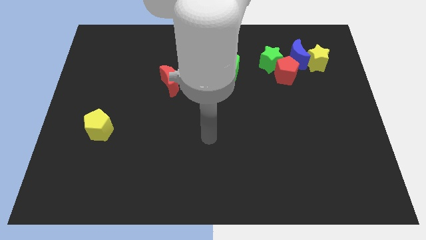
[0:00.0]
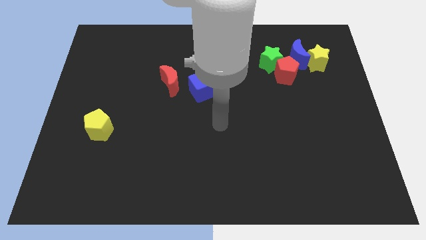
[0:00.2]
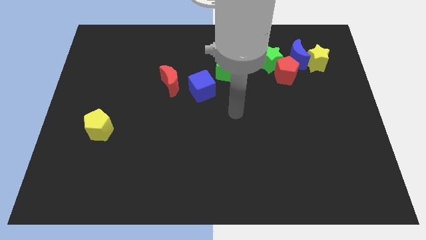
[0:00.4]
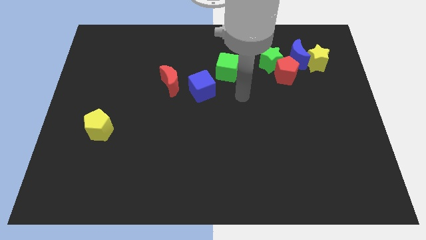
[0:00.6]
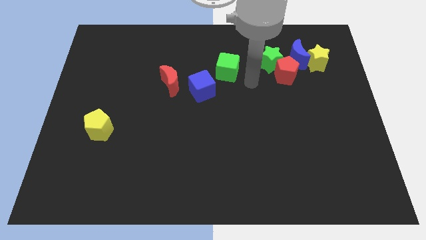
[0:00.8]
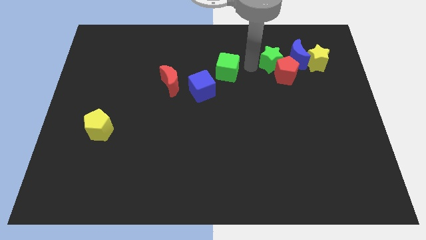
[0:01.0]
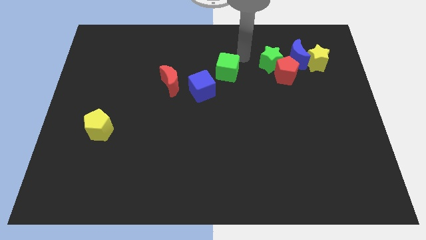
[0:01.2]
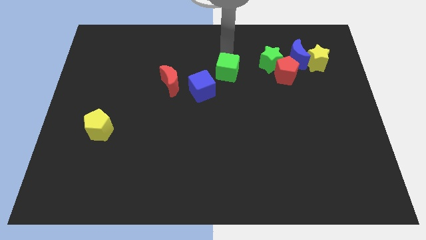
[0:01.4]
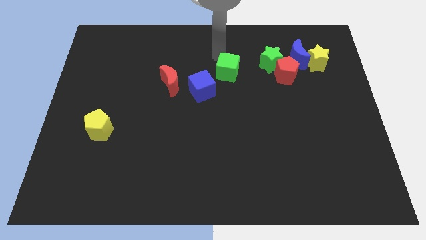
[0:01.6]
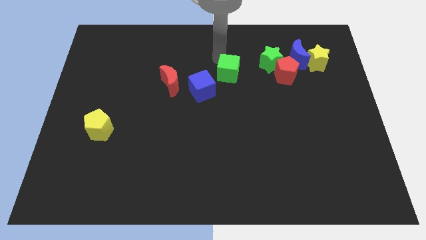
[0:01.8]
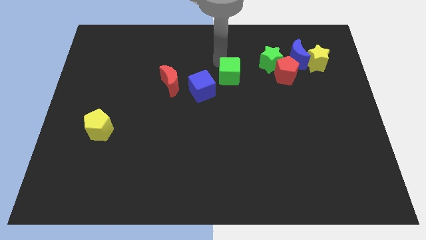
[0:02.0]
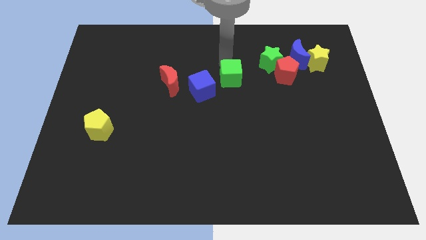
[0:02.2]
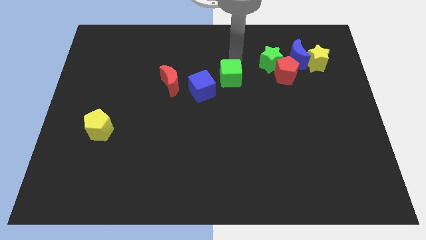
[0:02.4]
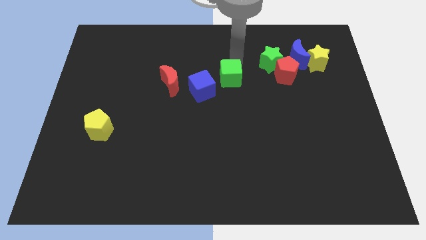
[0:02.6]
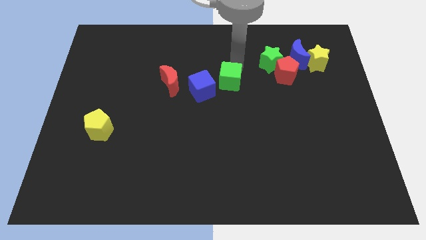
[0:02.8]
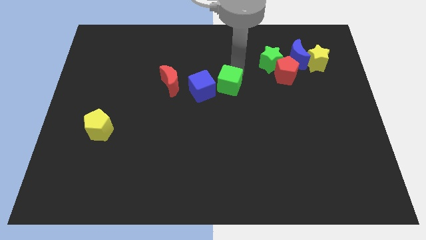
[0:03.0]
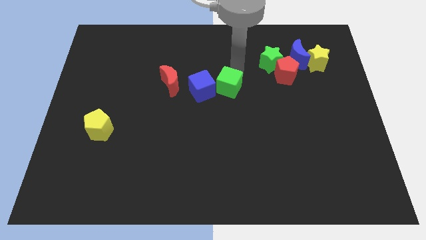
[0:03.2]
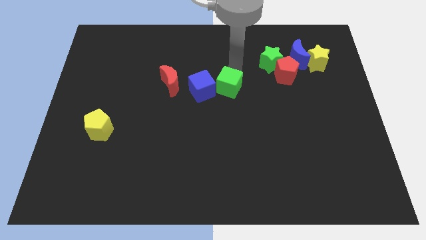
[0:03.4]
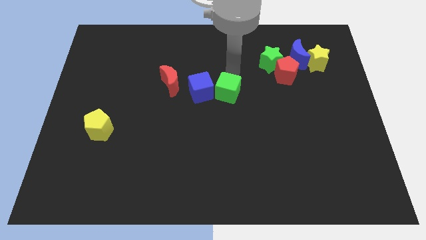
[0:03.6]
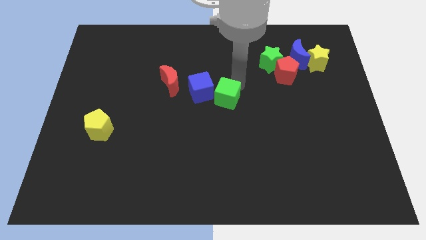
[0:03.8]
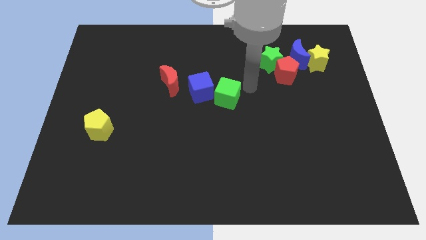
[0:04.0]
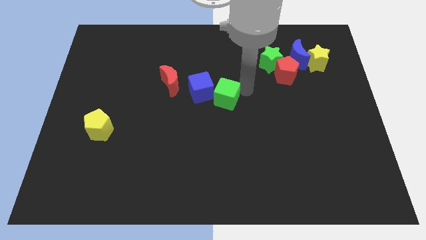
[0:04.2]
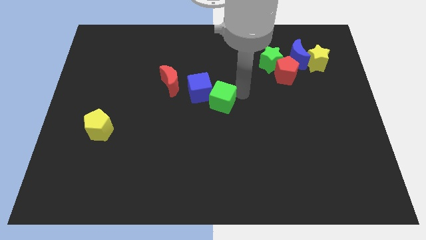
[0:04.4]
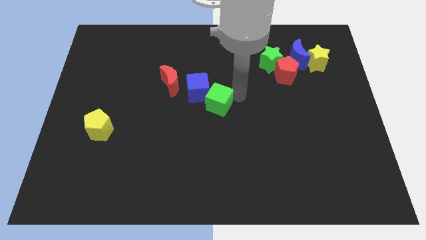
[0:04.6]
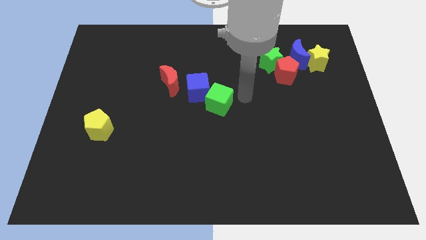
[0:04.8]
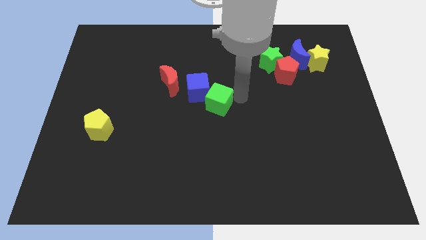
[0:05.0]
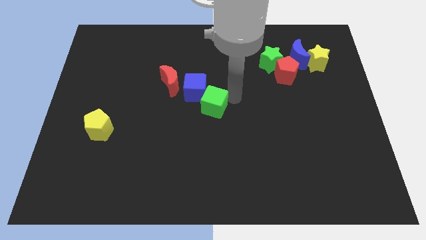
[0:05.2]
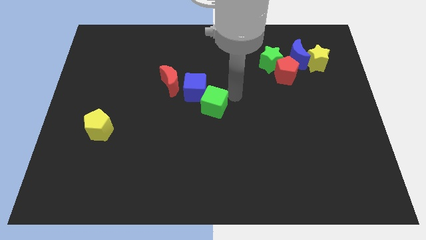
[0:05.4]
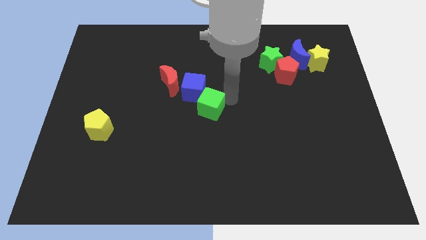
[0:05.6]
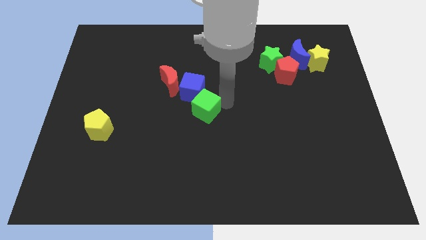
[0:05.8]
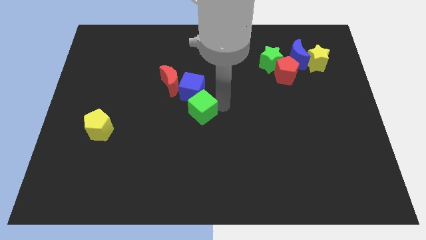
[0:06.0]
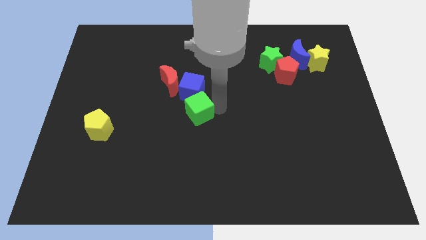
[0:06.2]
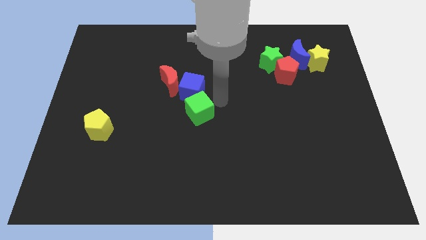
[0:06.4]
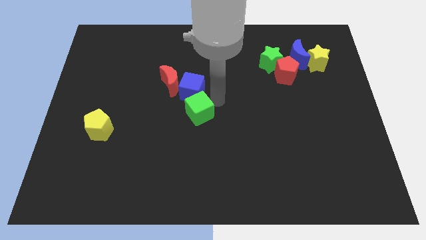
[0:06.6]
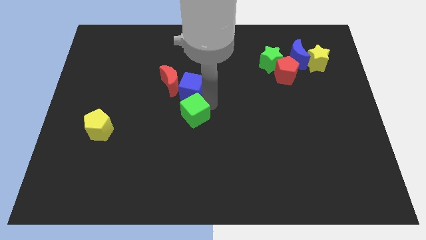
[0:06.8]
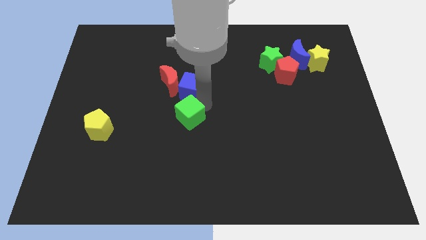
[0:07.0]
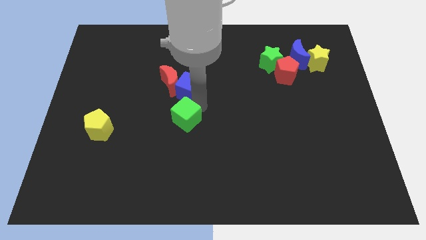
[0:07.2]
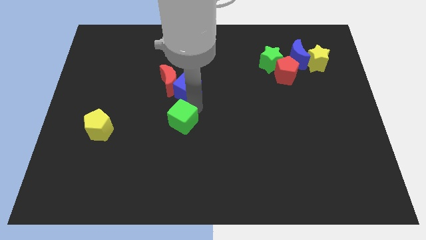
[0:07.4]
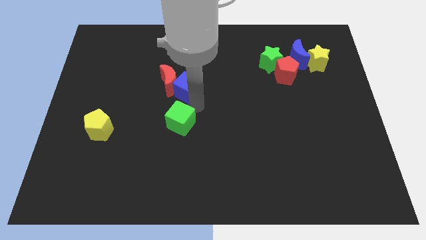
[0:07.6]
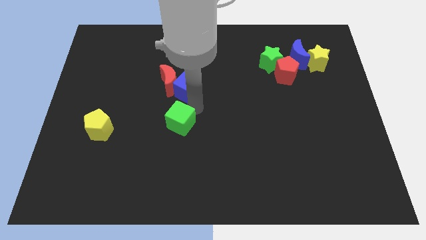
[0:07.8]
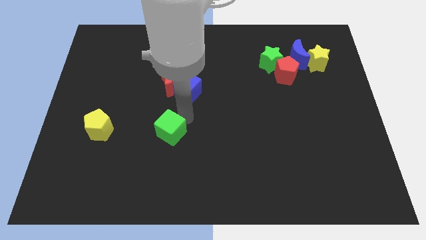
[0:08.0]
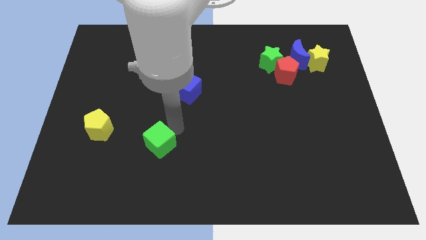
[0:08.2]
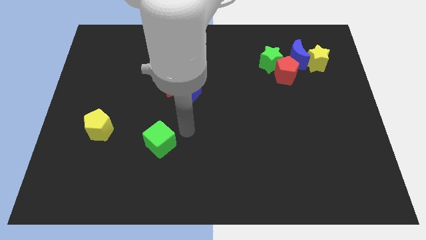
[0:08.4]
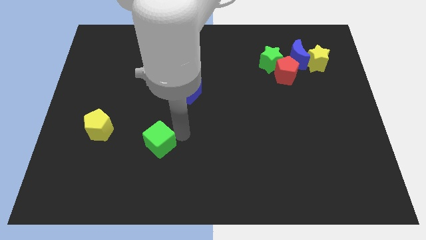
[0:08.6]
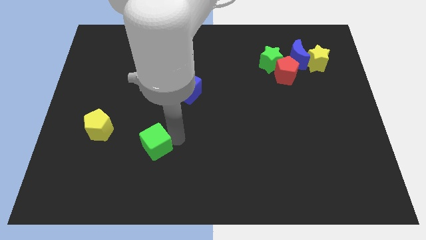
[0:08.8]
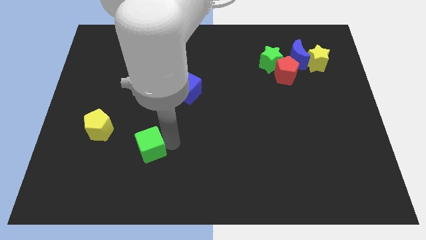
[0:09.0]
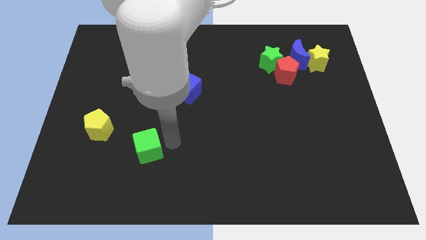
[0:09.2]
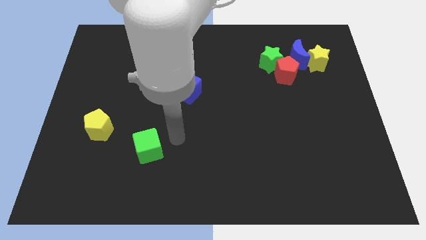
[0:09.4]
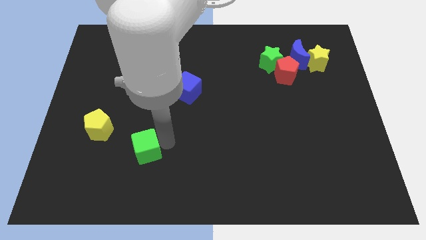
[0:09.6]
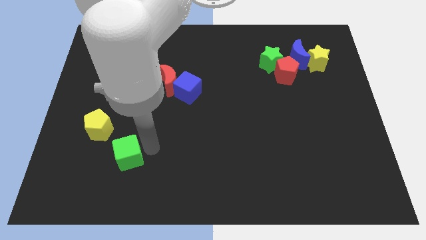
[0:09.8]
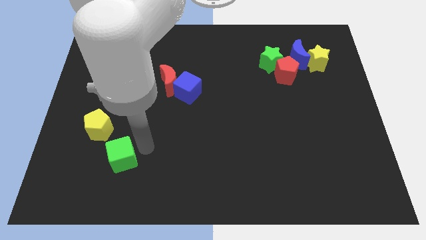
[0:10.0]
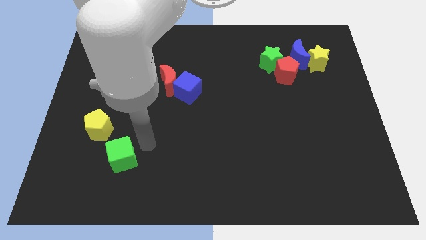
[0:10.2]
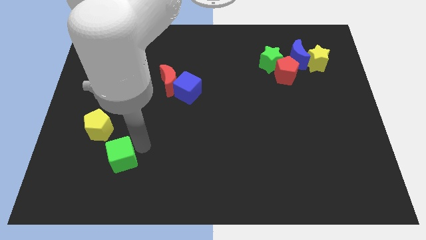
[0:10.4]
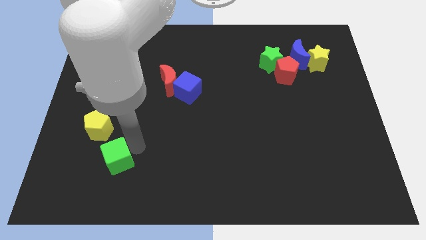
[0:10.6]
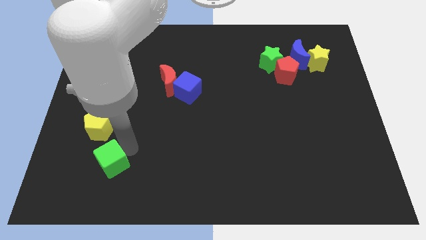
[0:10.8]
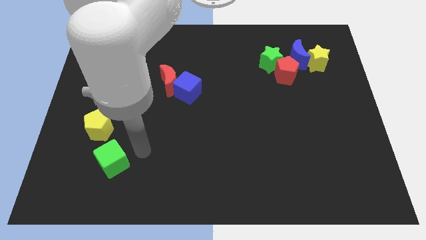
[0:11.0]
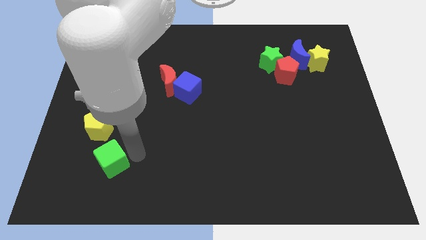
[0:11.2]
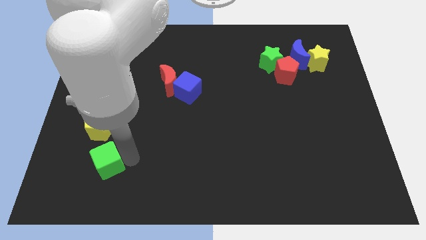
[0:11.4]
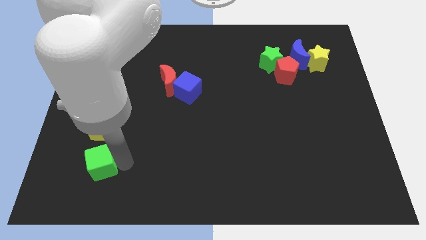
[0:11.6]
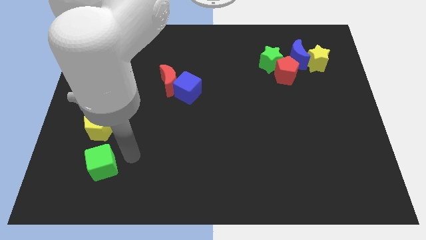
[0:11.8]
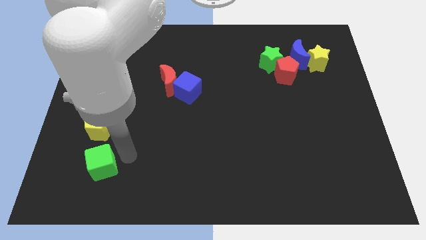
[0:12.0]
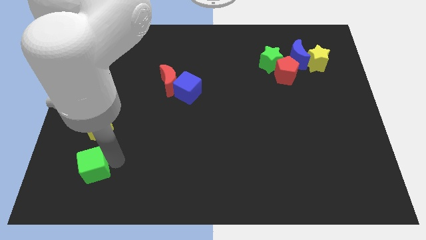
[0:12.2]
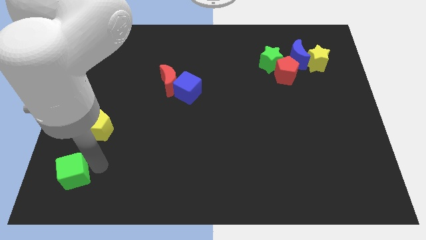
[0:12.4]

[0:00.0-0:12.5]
push the green cube to the bottom left corner
